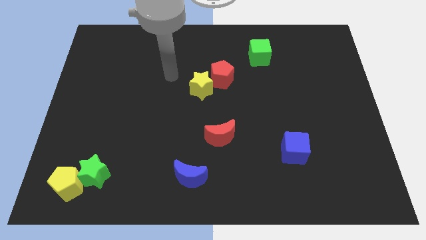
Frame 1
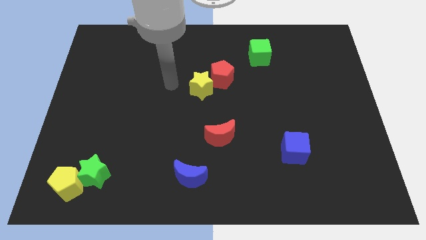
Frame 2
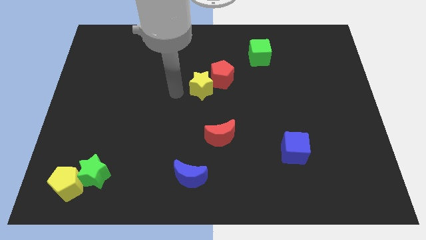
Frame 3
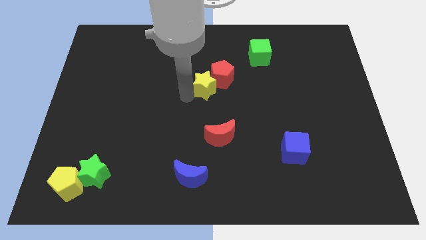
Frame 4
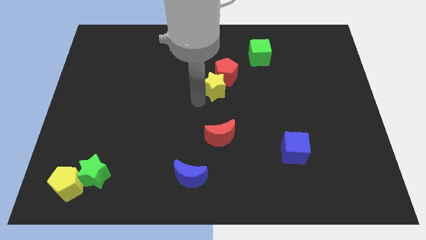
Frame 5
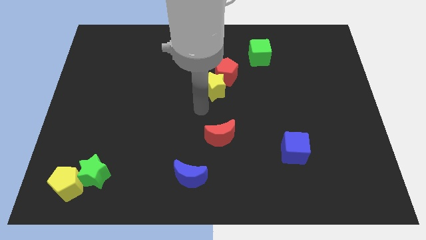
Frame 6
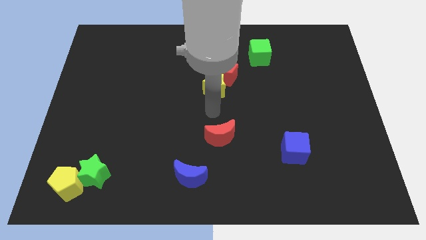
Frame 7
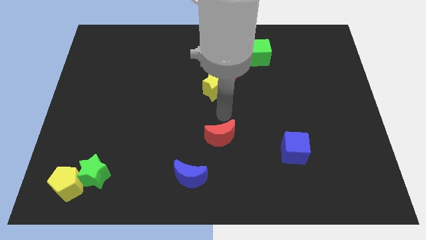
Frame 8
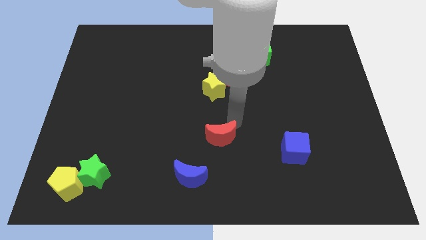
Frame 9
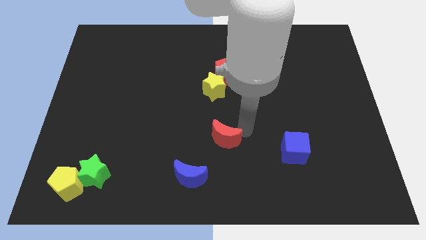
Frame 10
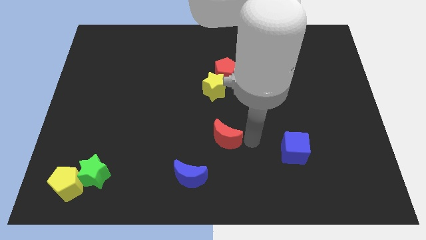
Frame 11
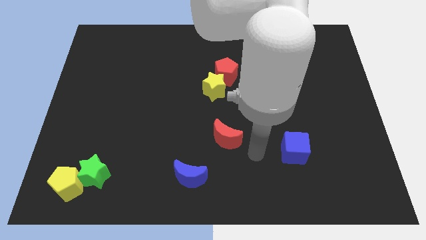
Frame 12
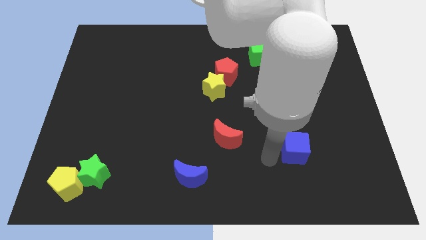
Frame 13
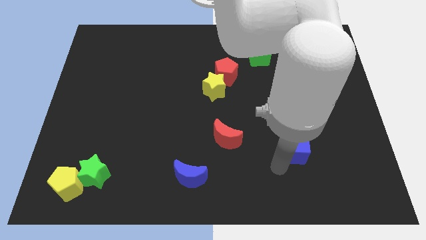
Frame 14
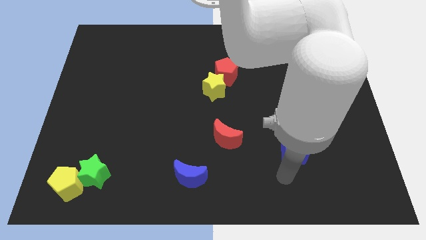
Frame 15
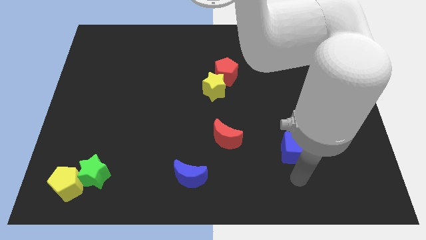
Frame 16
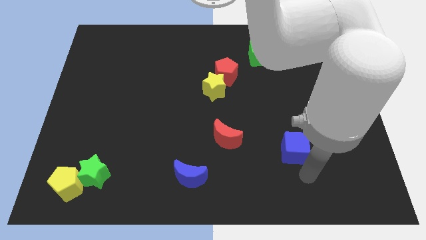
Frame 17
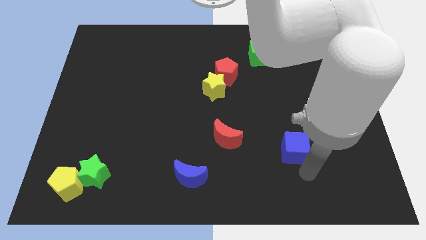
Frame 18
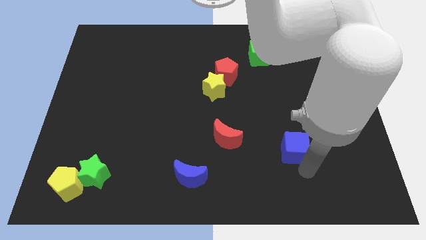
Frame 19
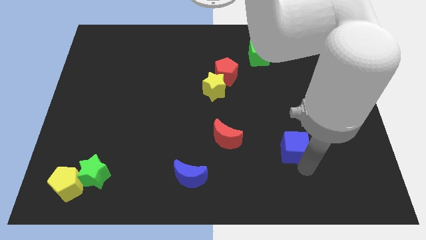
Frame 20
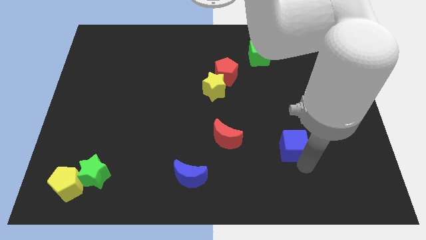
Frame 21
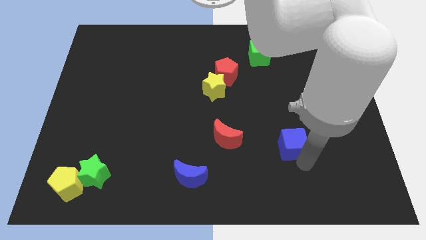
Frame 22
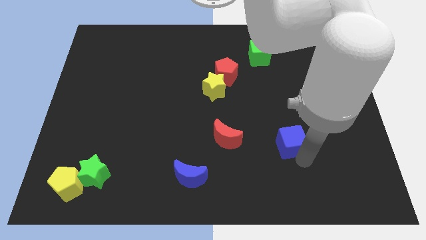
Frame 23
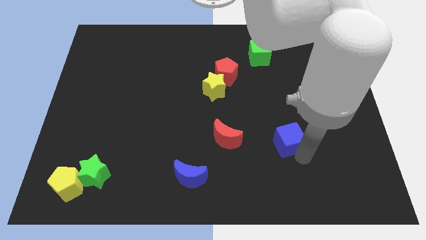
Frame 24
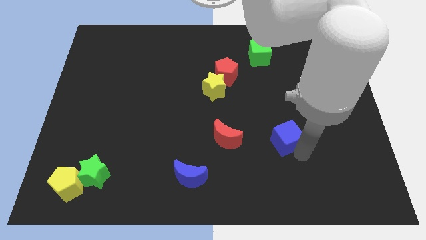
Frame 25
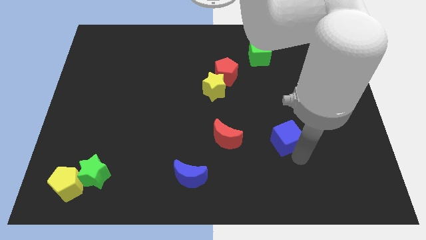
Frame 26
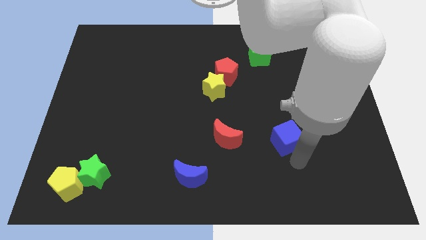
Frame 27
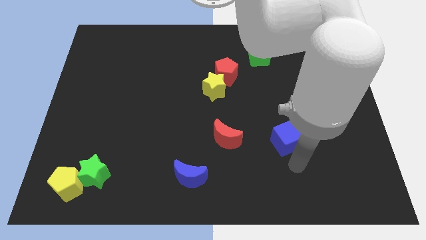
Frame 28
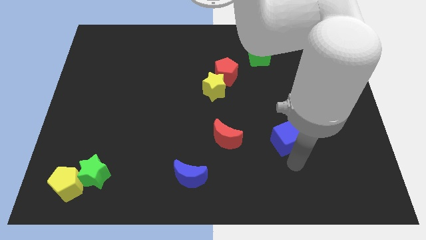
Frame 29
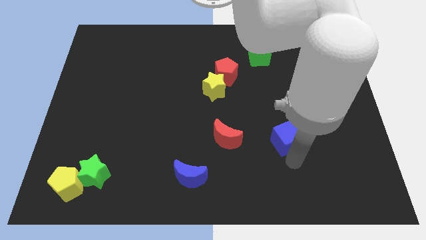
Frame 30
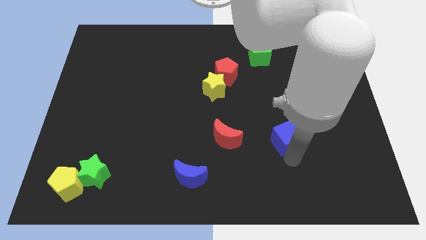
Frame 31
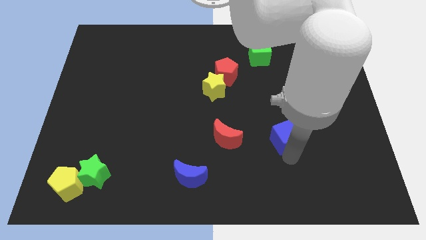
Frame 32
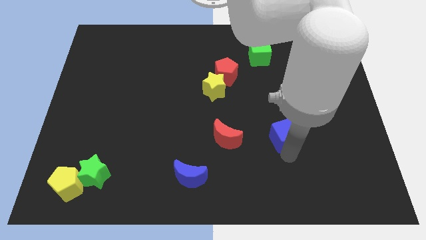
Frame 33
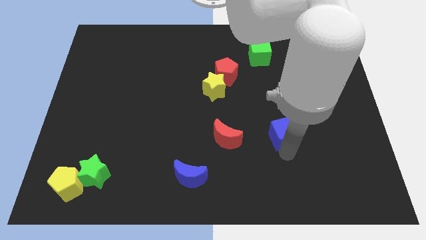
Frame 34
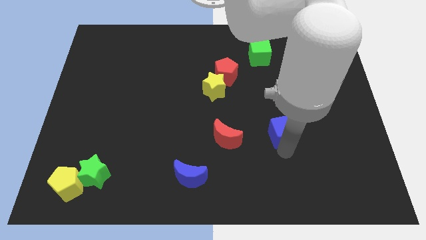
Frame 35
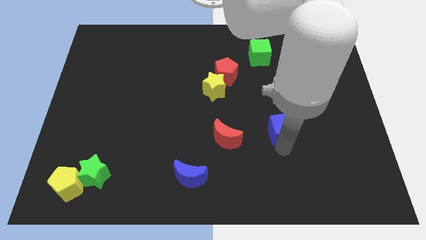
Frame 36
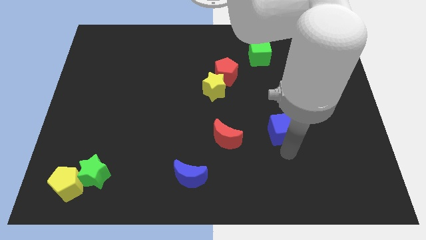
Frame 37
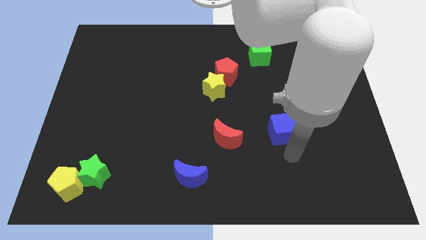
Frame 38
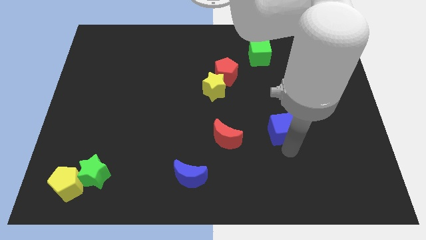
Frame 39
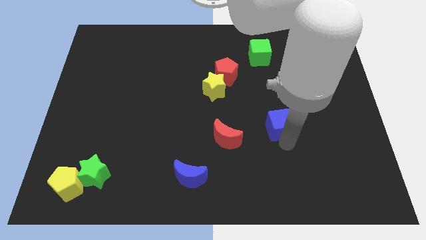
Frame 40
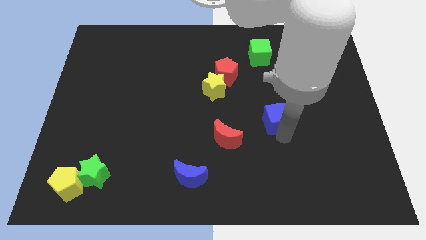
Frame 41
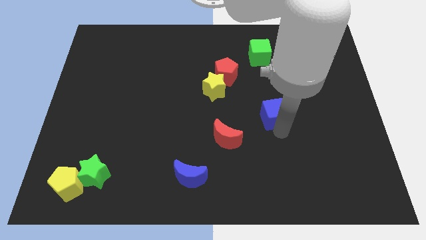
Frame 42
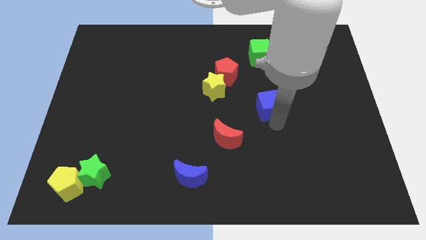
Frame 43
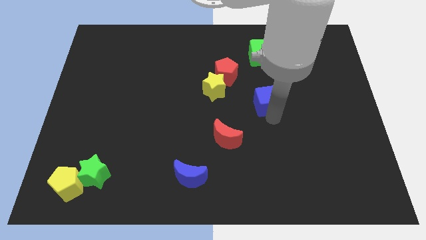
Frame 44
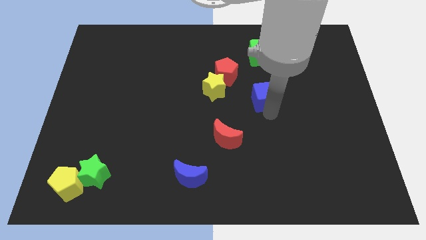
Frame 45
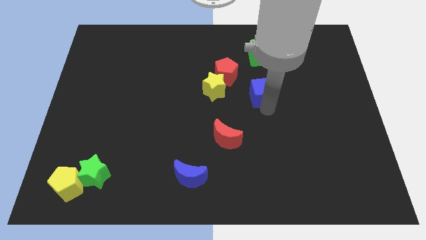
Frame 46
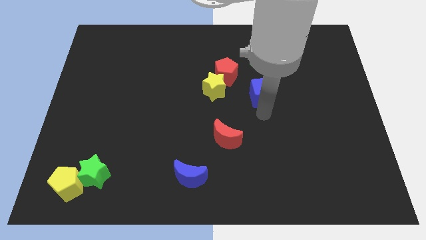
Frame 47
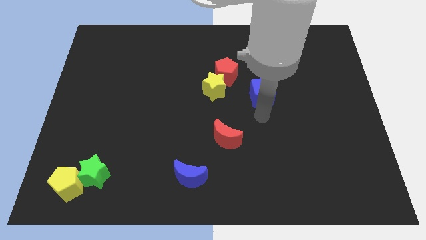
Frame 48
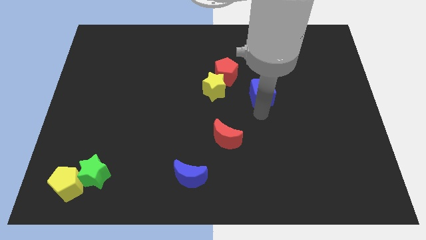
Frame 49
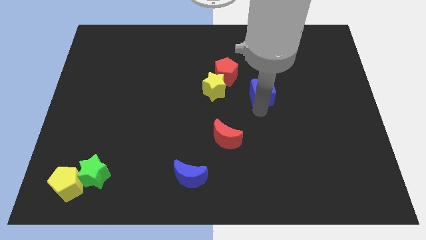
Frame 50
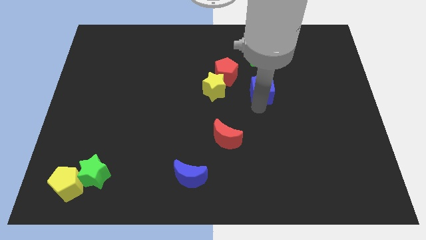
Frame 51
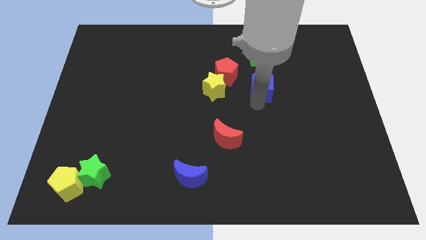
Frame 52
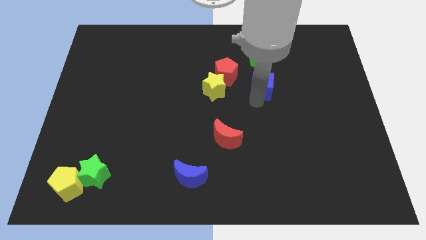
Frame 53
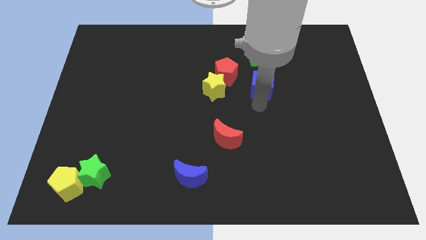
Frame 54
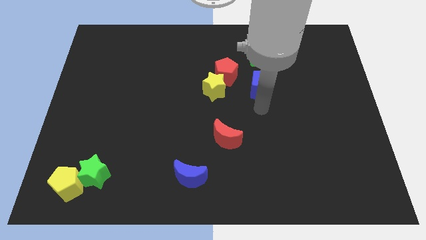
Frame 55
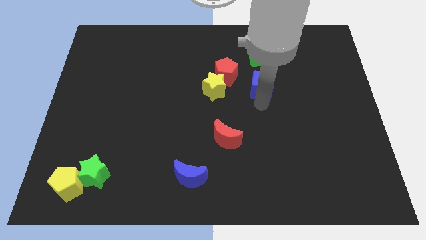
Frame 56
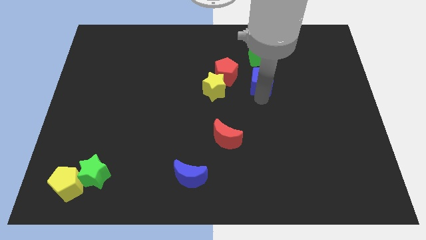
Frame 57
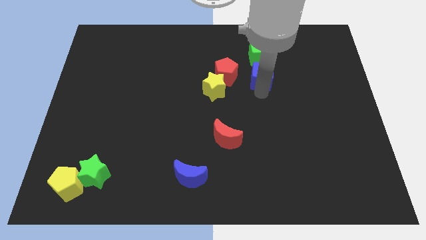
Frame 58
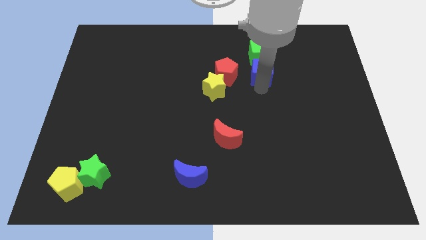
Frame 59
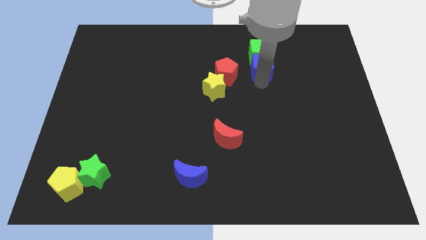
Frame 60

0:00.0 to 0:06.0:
slide the blue cube next to the green cube

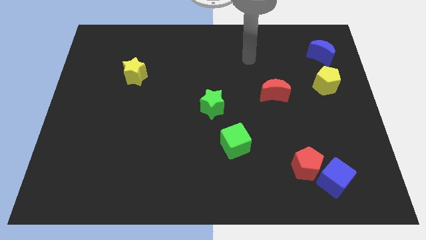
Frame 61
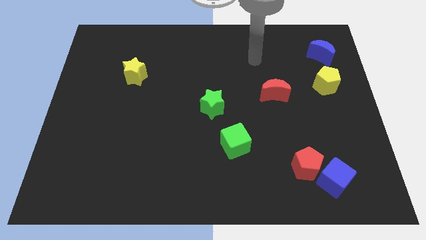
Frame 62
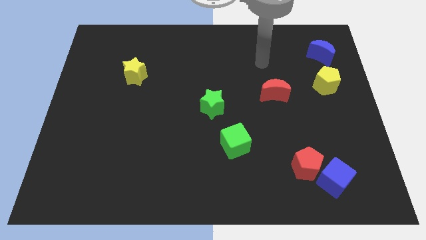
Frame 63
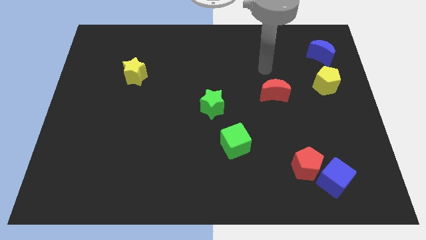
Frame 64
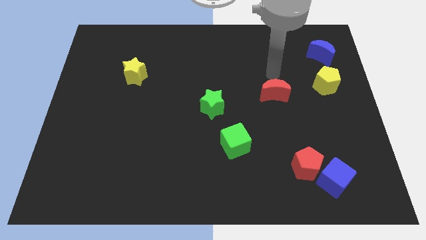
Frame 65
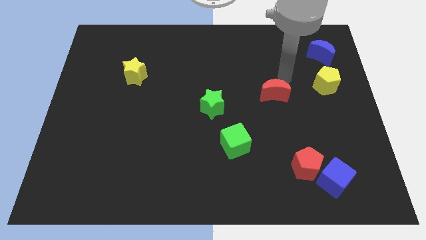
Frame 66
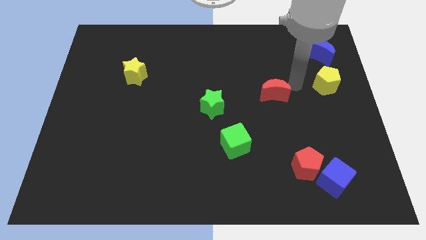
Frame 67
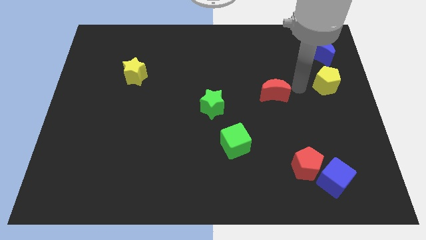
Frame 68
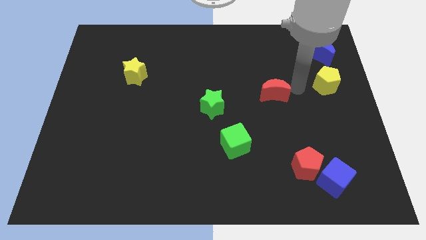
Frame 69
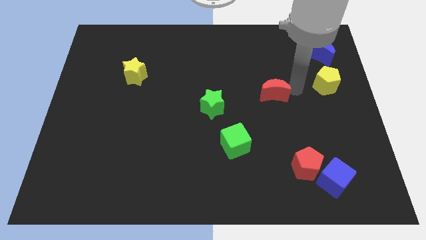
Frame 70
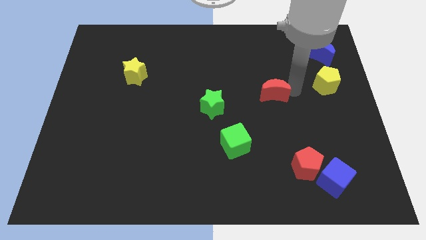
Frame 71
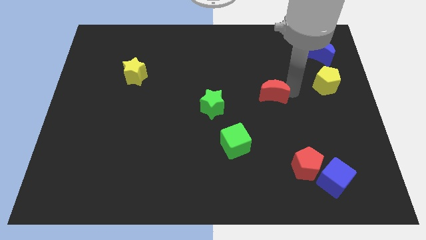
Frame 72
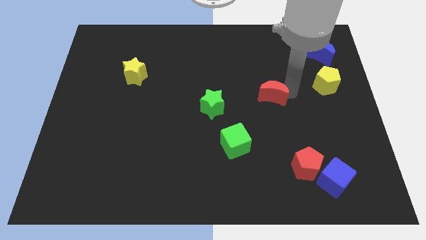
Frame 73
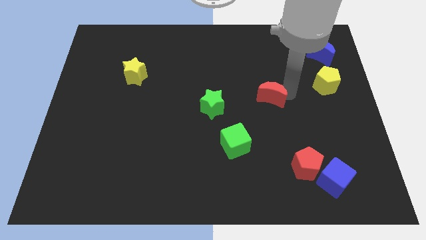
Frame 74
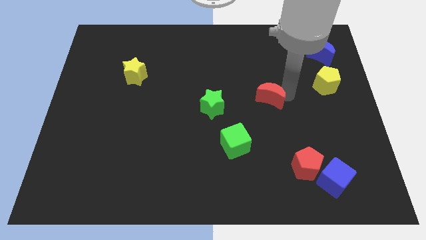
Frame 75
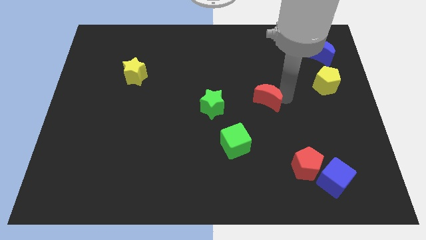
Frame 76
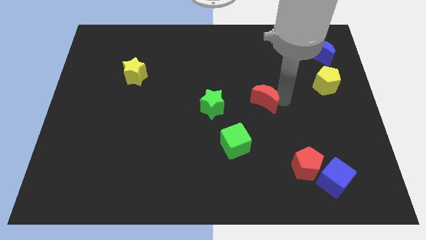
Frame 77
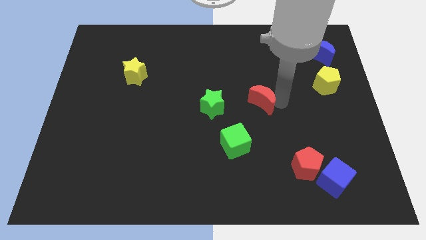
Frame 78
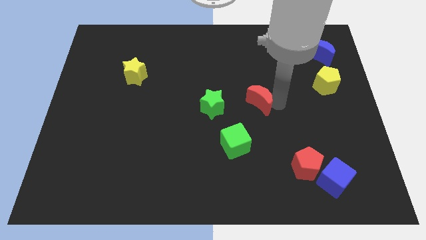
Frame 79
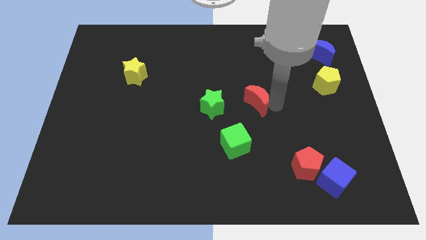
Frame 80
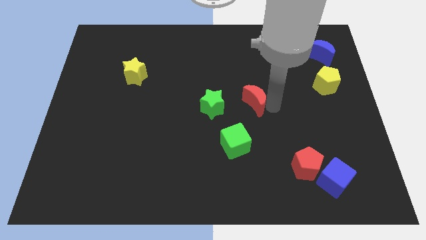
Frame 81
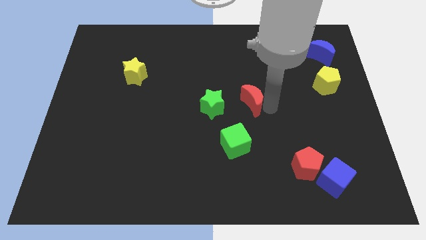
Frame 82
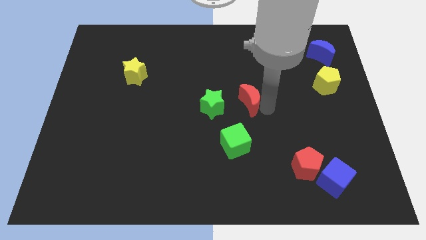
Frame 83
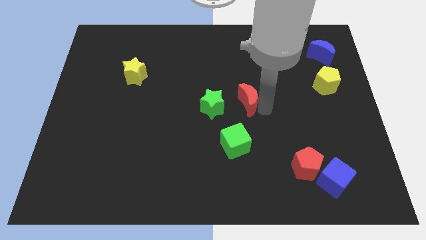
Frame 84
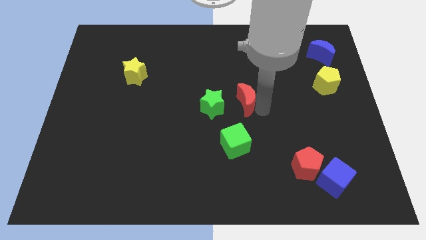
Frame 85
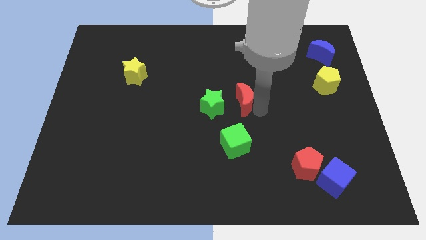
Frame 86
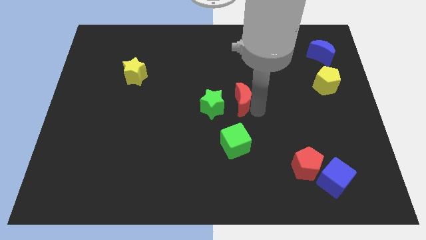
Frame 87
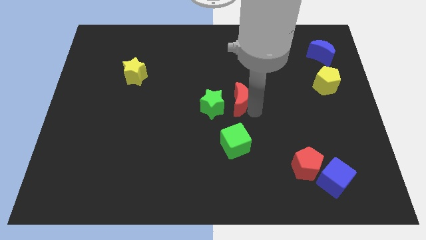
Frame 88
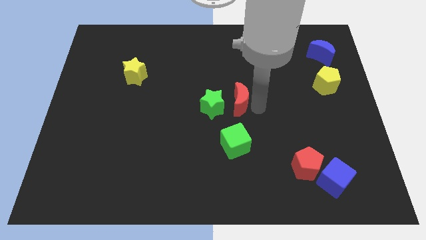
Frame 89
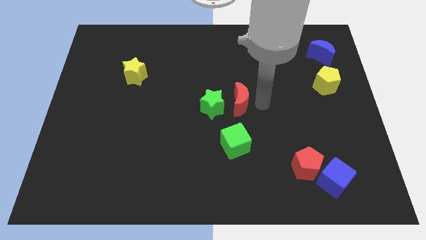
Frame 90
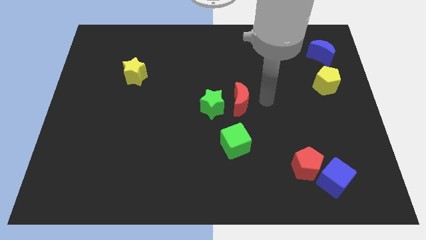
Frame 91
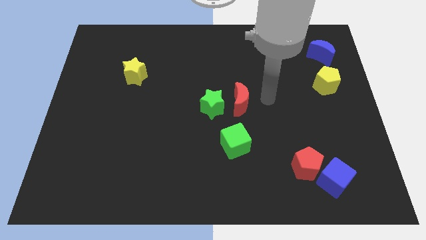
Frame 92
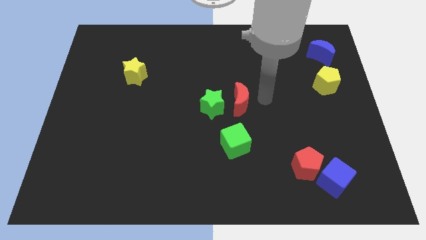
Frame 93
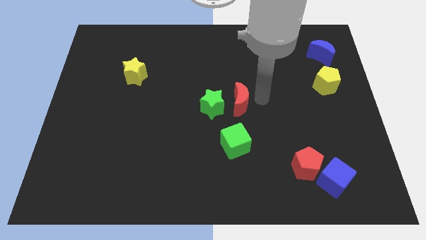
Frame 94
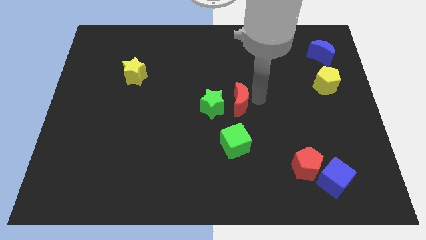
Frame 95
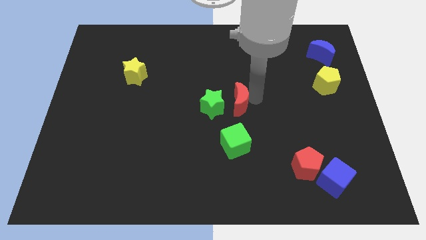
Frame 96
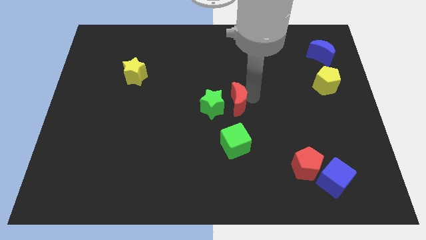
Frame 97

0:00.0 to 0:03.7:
move the red moon next to the green star
